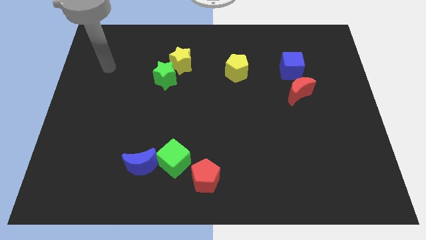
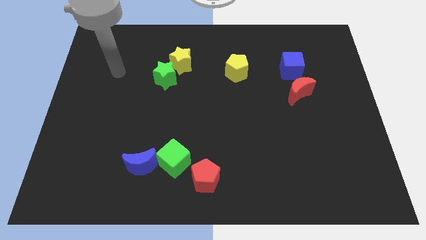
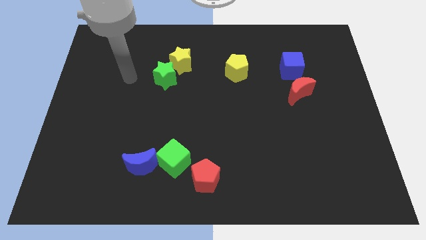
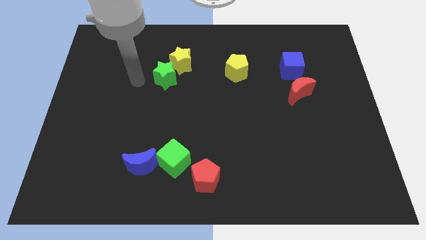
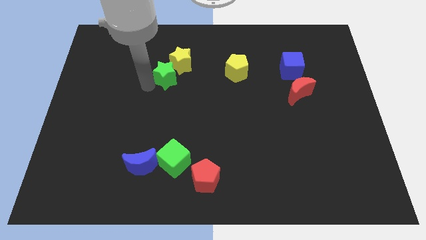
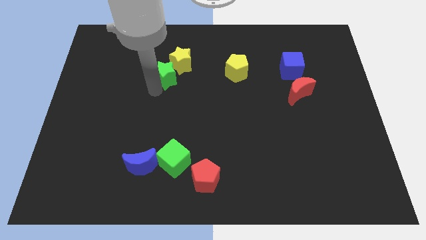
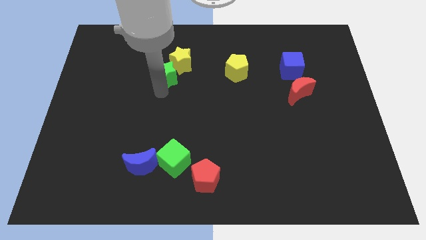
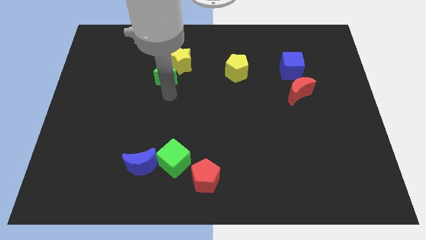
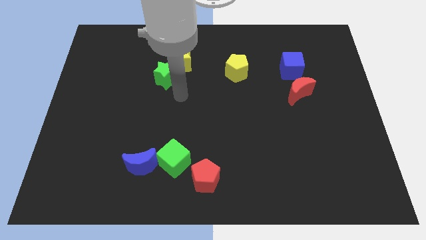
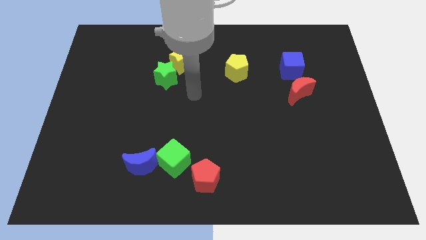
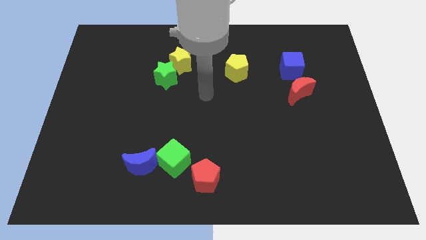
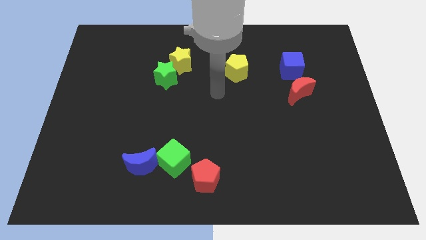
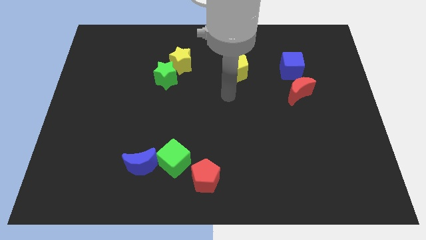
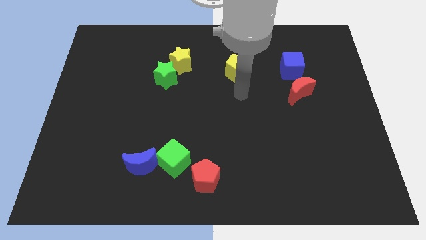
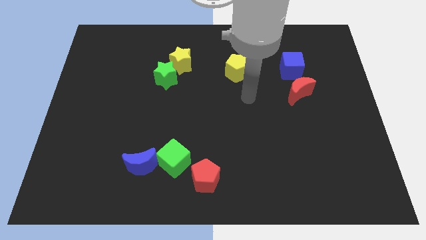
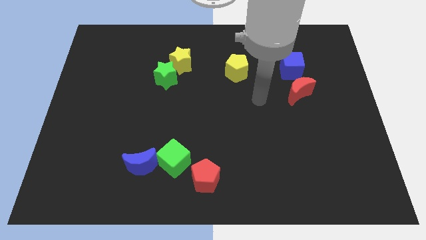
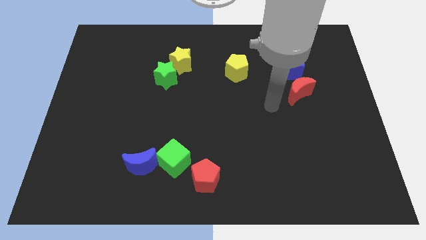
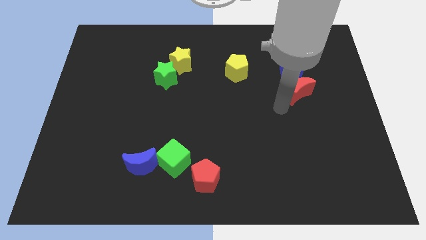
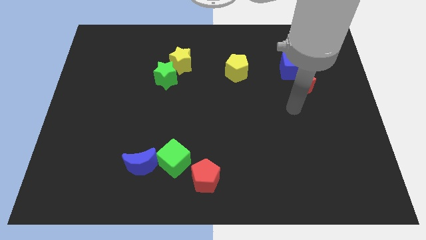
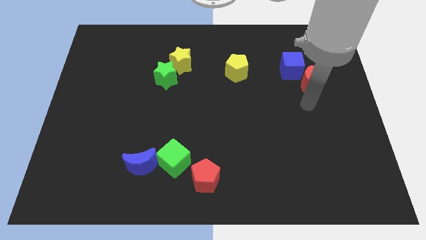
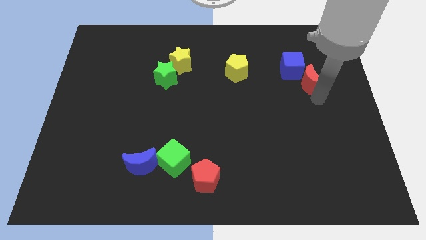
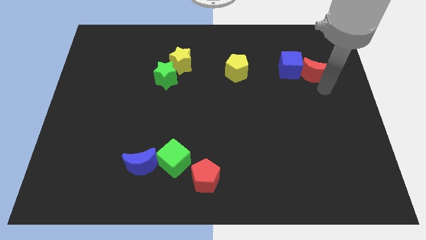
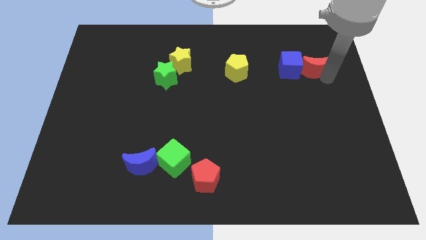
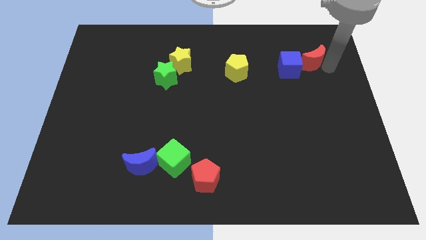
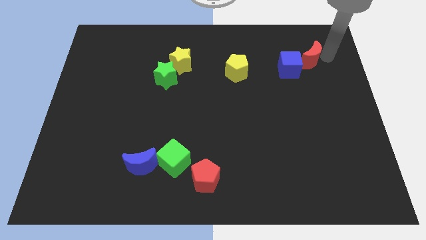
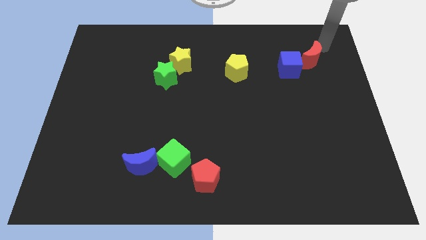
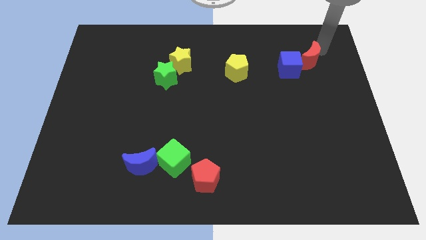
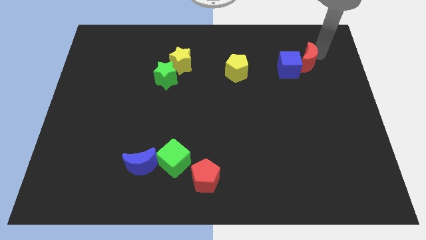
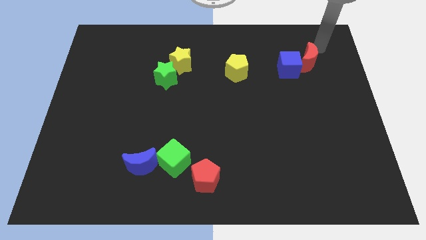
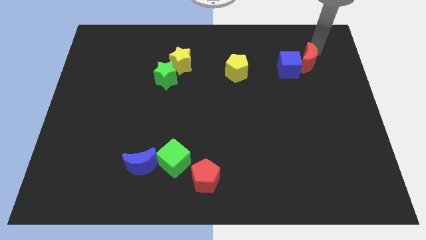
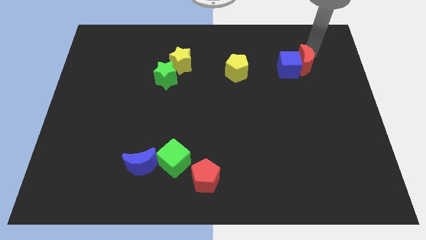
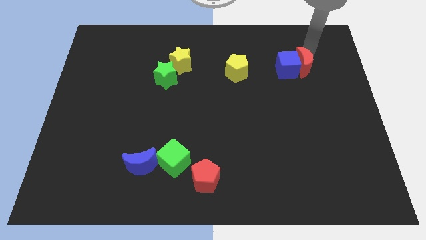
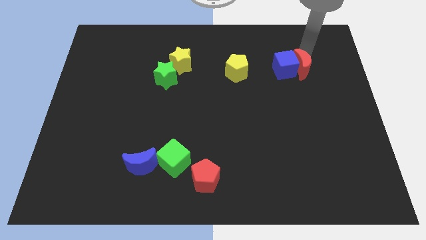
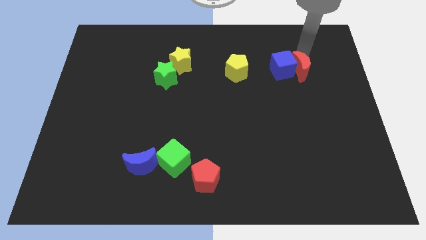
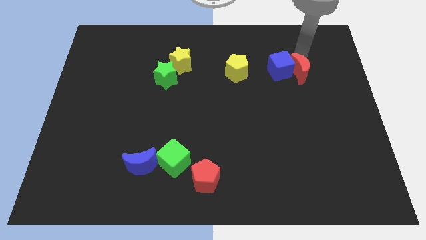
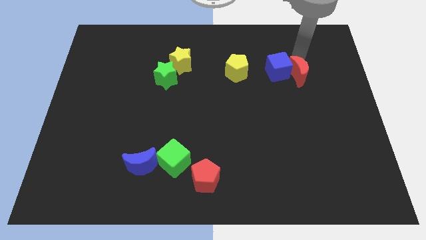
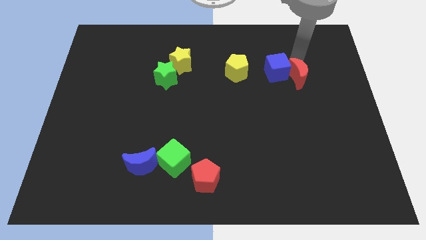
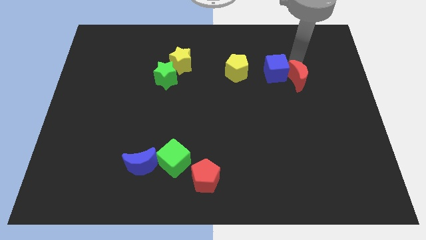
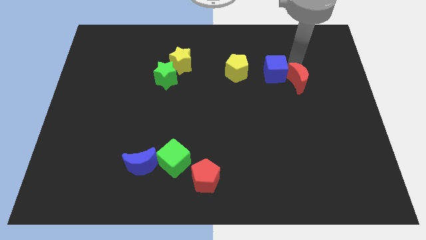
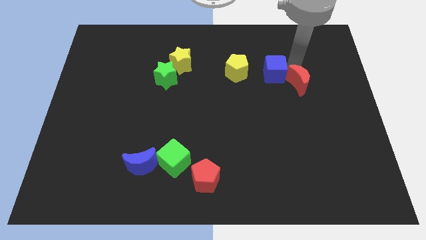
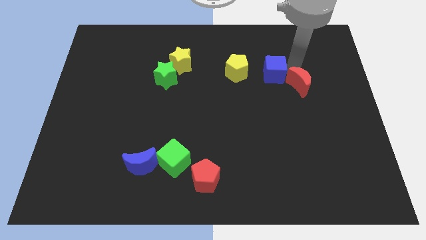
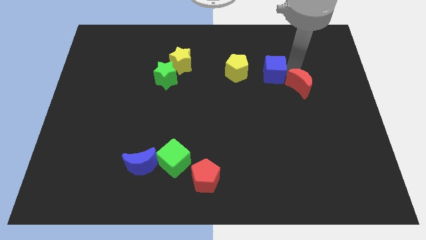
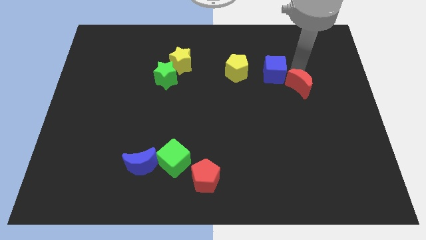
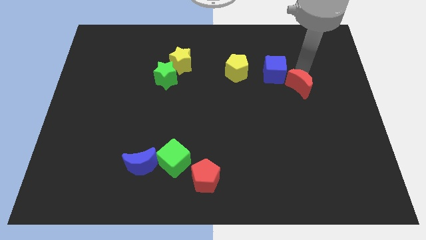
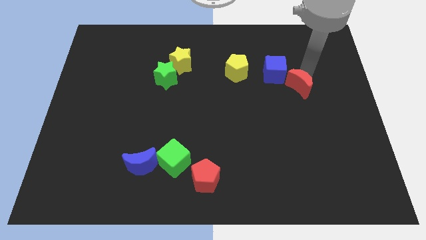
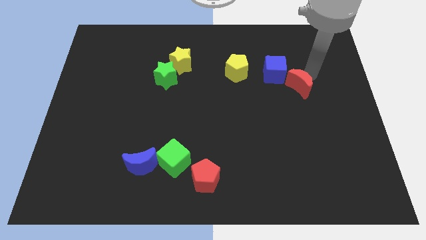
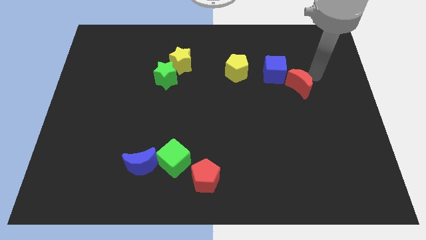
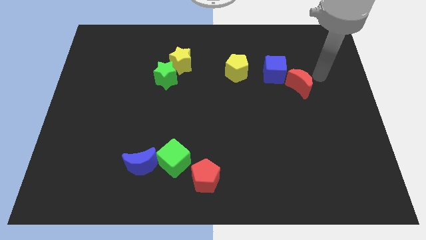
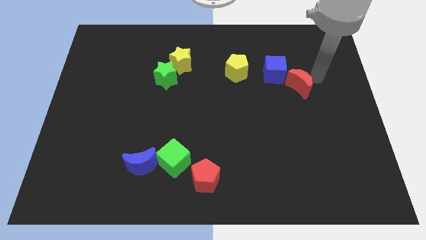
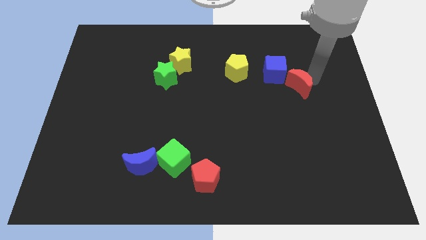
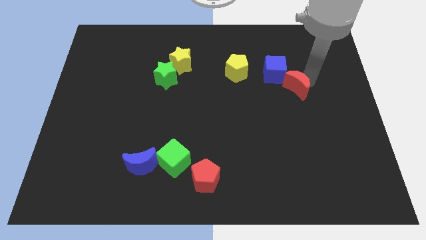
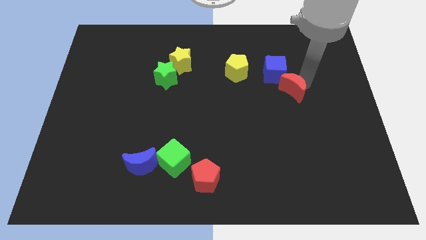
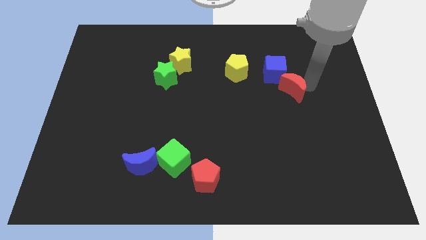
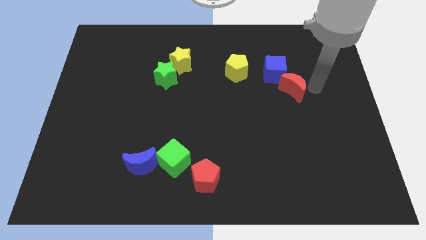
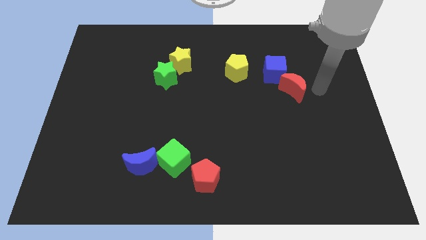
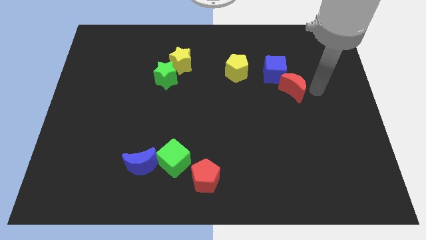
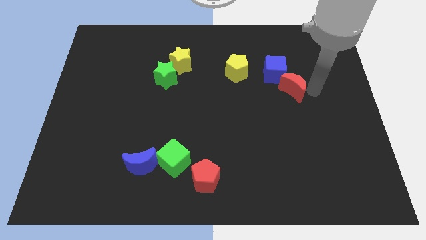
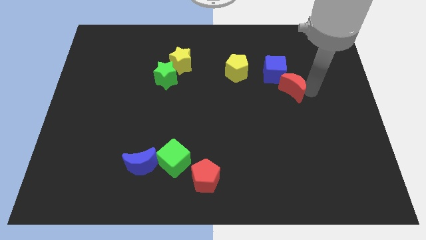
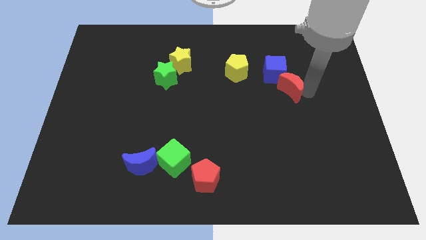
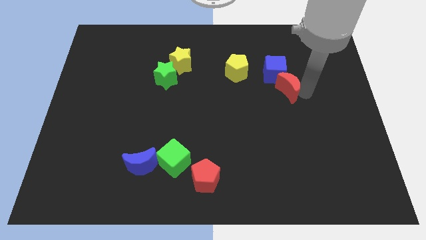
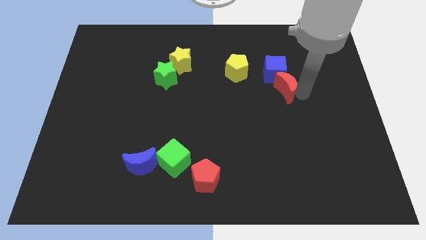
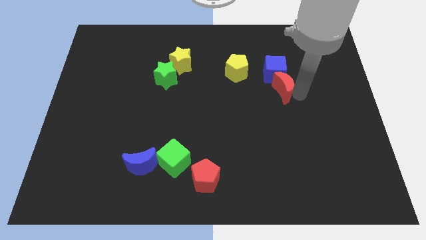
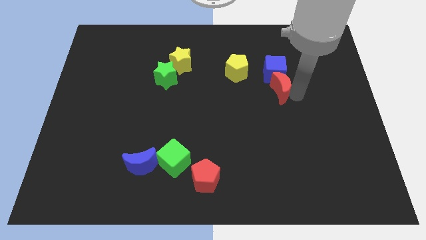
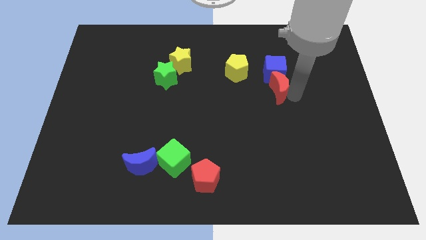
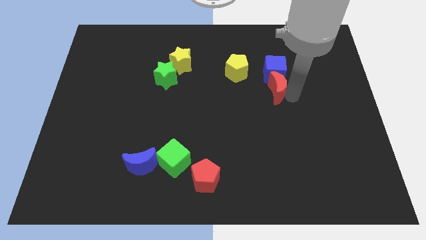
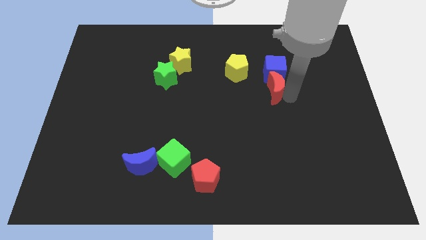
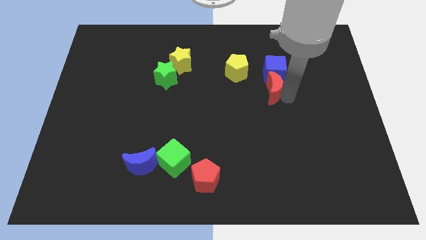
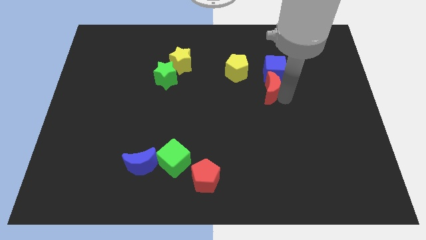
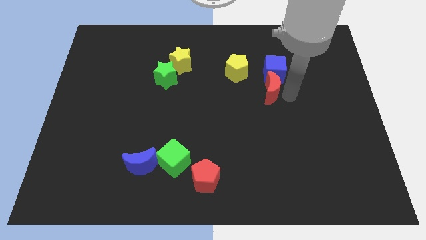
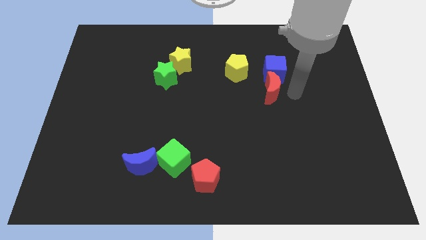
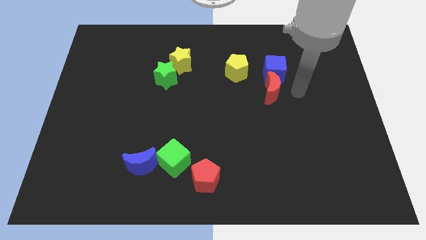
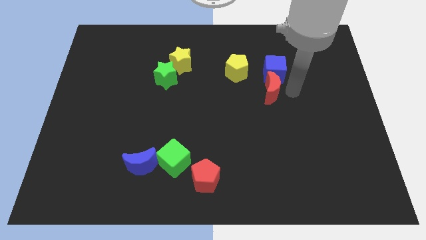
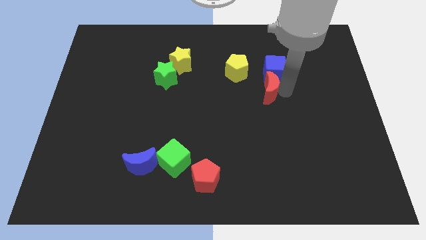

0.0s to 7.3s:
slightly move the red moon left

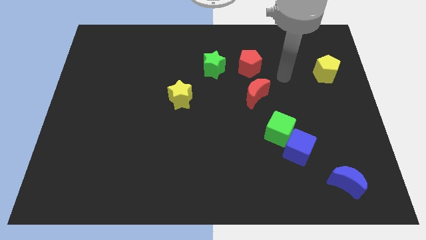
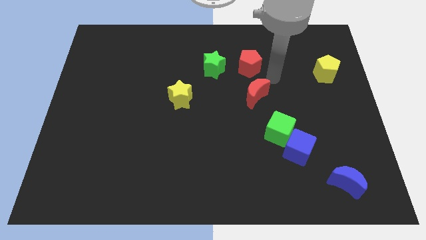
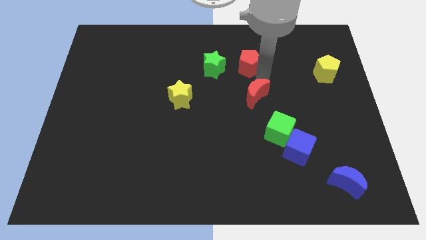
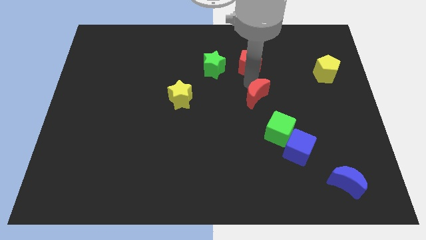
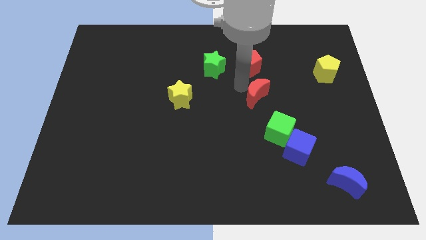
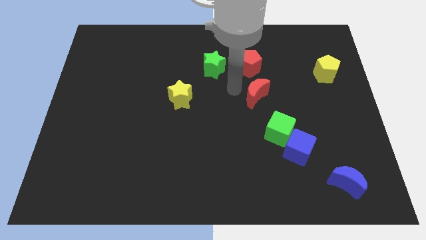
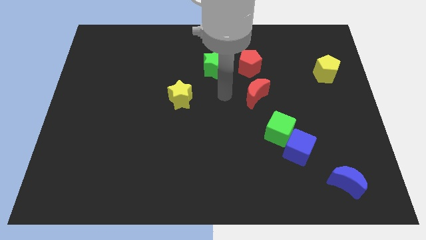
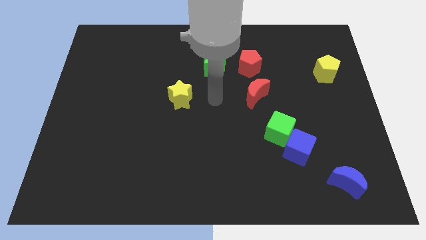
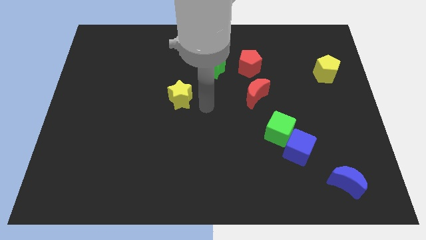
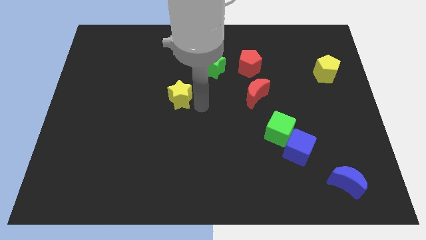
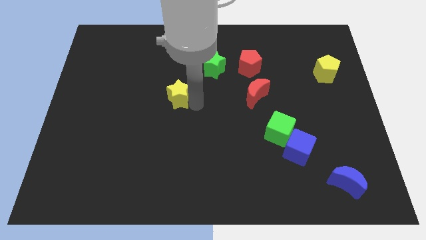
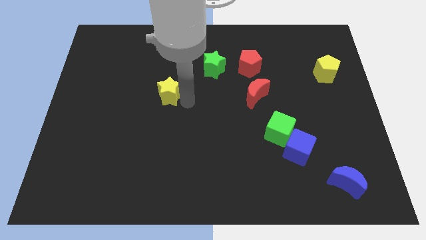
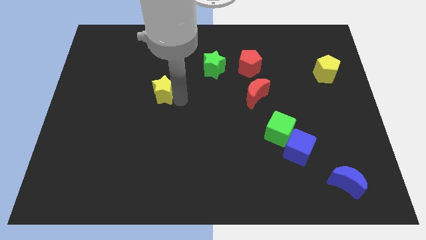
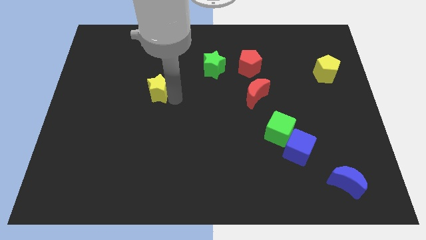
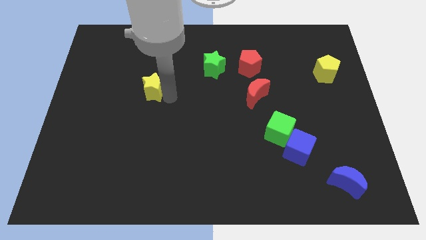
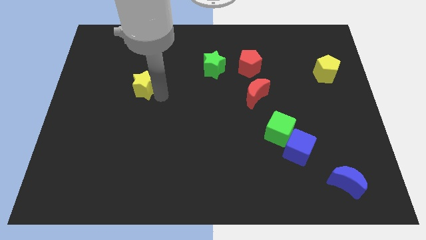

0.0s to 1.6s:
slightly move the yellow star up and then to the left
